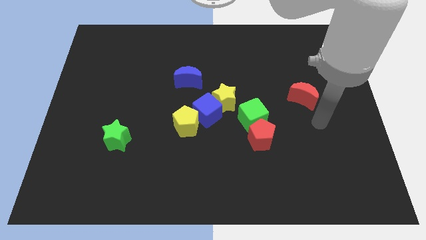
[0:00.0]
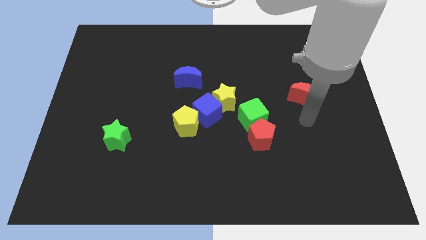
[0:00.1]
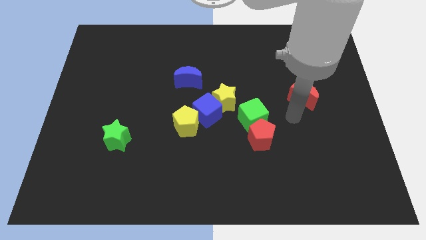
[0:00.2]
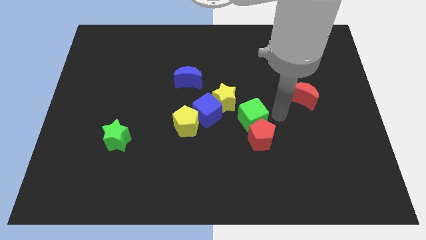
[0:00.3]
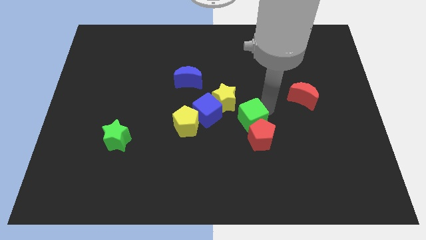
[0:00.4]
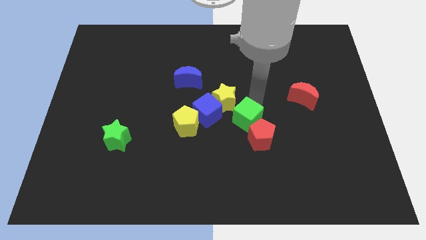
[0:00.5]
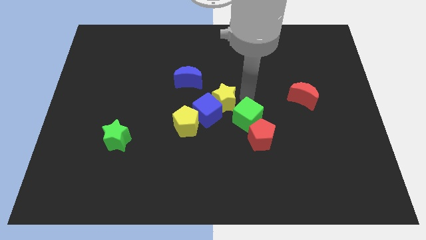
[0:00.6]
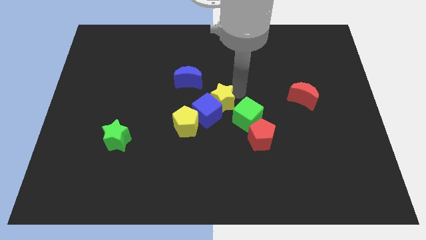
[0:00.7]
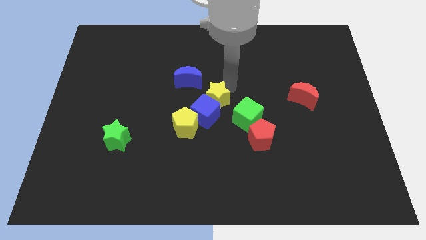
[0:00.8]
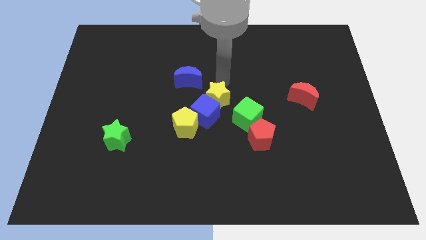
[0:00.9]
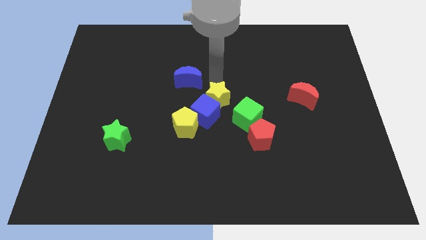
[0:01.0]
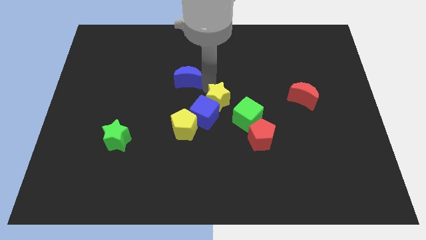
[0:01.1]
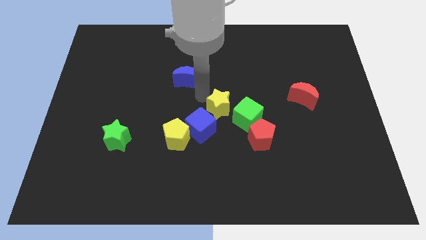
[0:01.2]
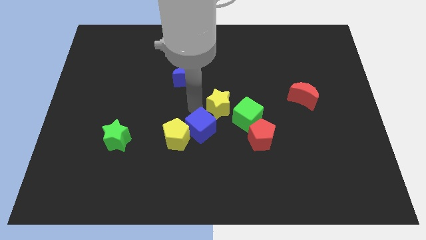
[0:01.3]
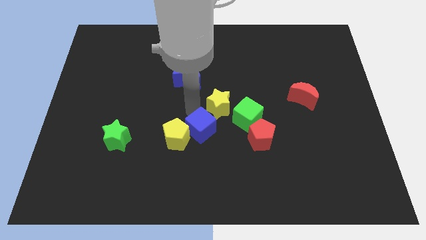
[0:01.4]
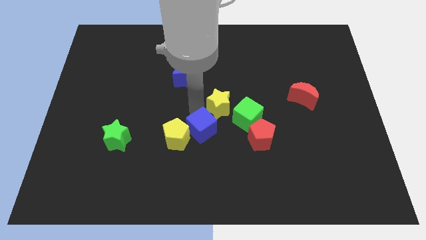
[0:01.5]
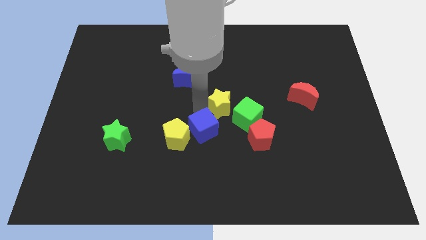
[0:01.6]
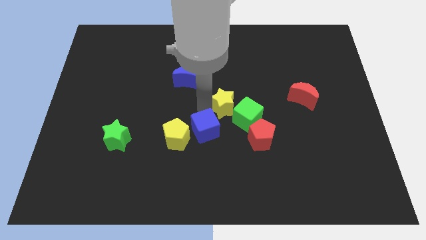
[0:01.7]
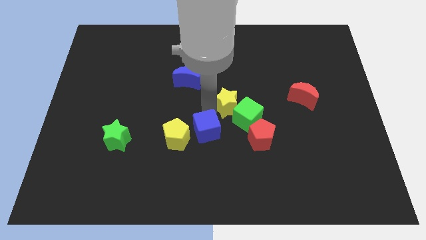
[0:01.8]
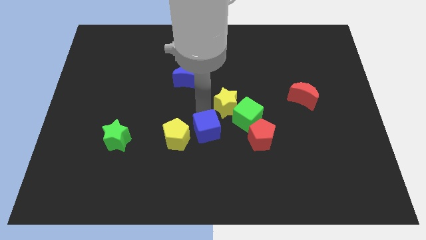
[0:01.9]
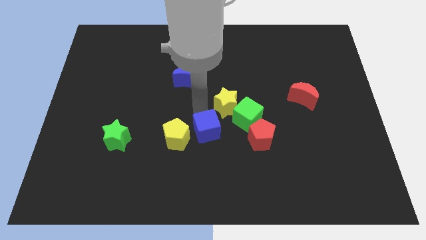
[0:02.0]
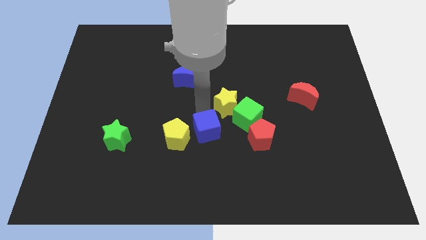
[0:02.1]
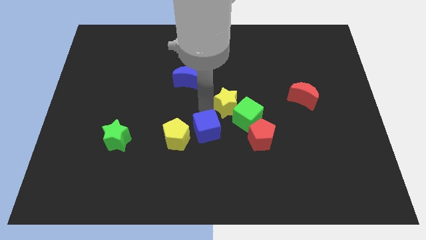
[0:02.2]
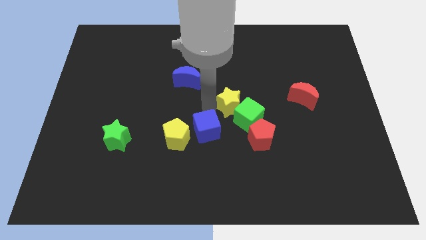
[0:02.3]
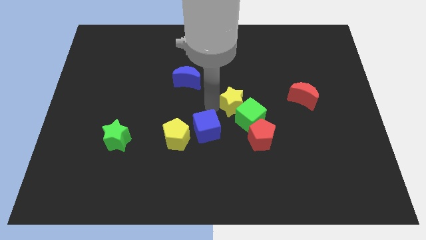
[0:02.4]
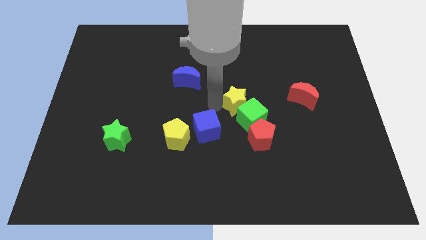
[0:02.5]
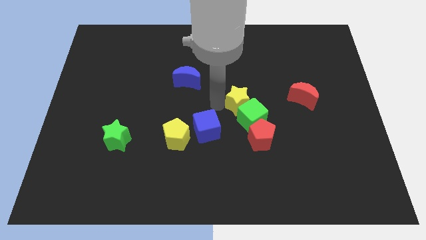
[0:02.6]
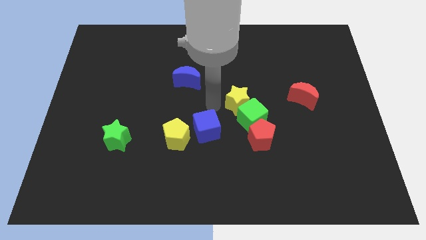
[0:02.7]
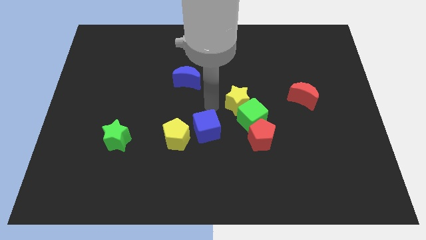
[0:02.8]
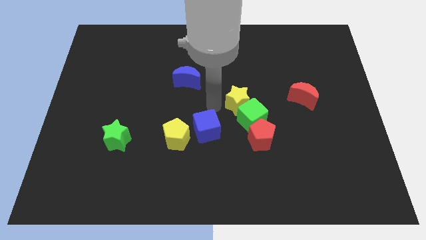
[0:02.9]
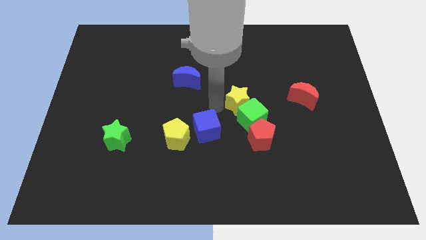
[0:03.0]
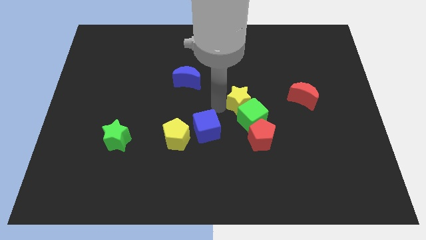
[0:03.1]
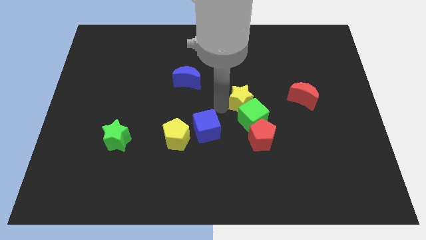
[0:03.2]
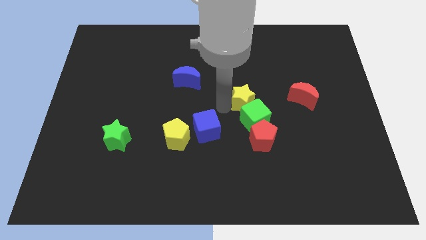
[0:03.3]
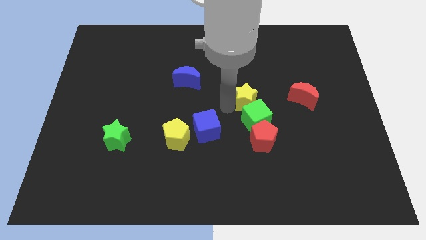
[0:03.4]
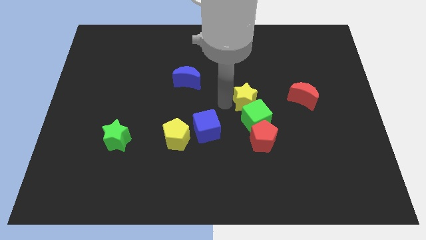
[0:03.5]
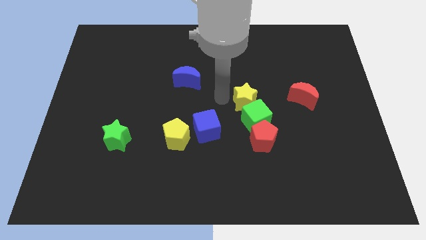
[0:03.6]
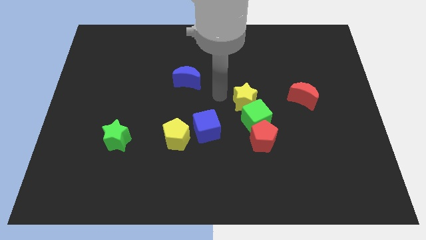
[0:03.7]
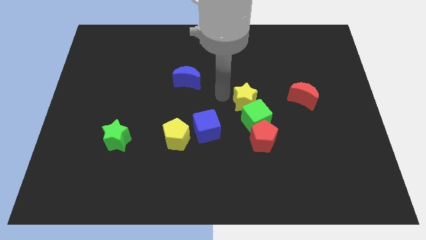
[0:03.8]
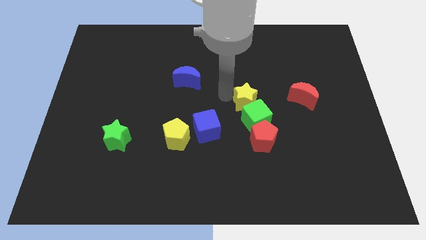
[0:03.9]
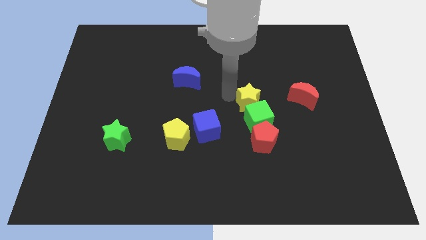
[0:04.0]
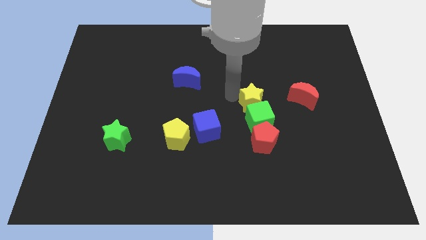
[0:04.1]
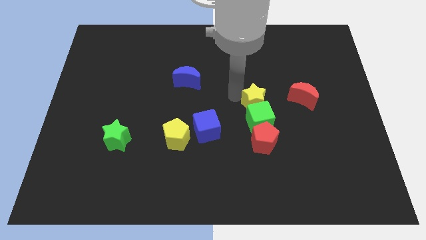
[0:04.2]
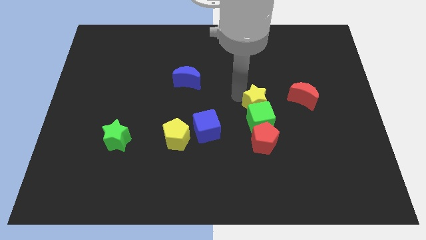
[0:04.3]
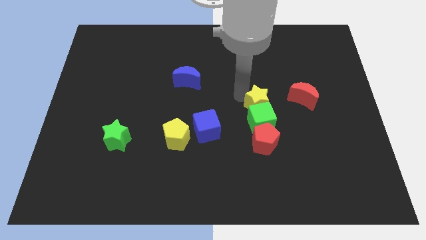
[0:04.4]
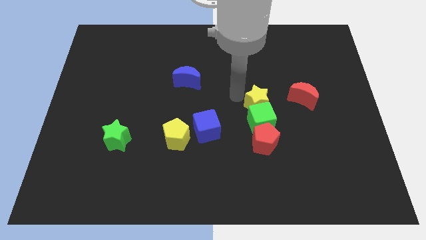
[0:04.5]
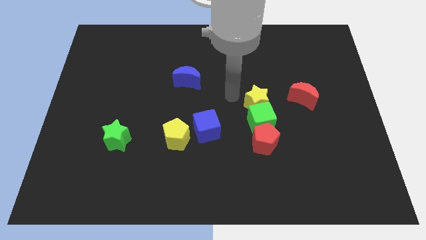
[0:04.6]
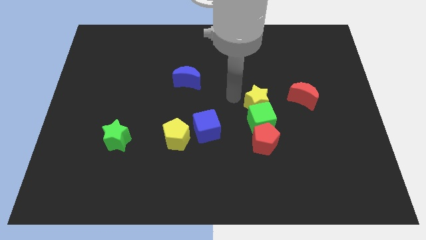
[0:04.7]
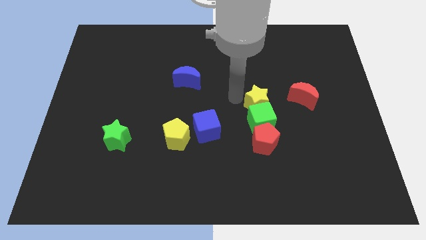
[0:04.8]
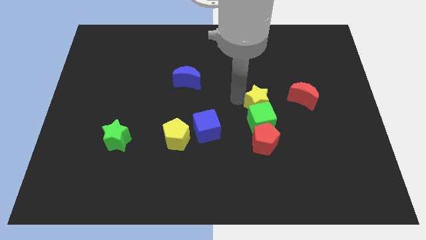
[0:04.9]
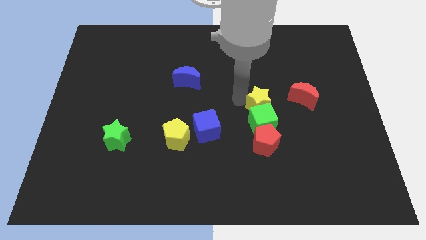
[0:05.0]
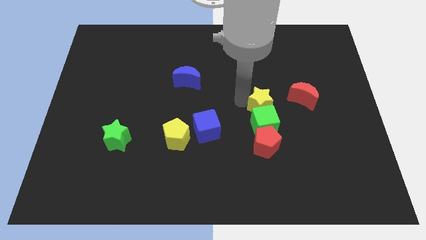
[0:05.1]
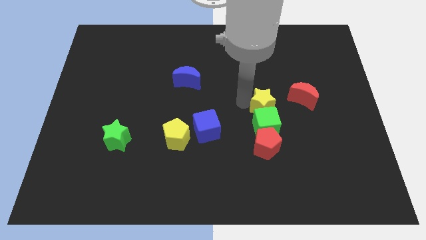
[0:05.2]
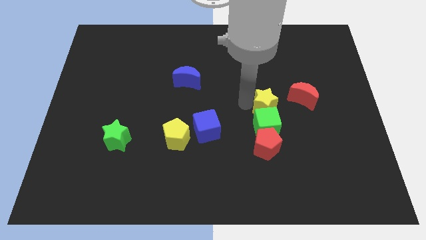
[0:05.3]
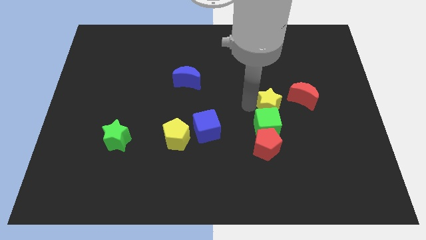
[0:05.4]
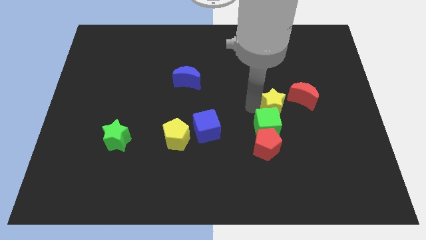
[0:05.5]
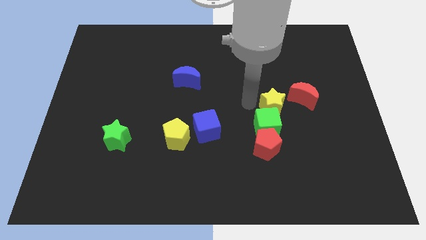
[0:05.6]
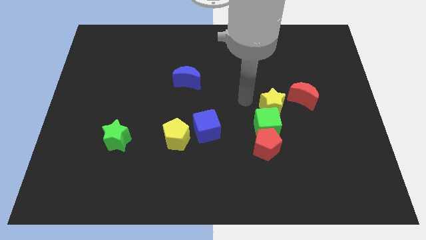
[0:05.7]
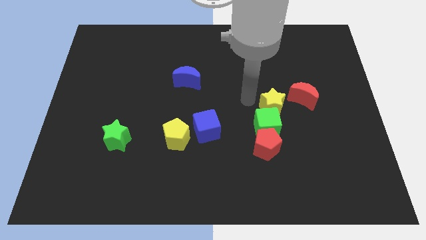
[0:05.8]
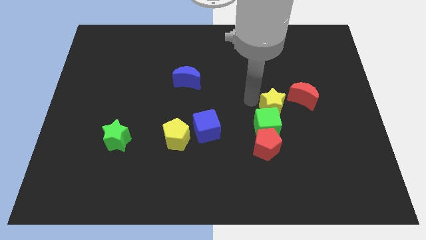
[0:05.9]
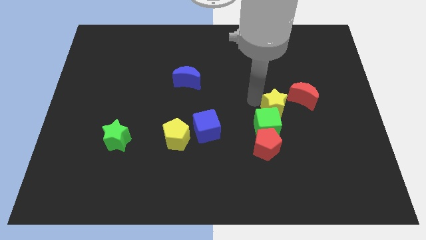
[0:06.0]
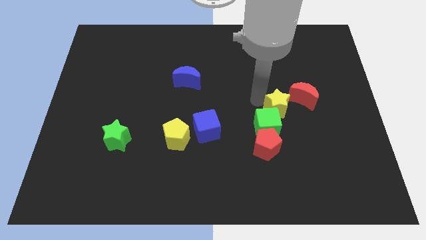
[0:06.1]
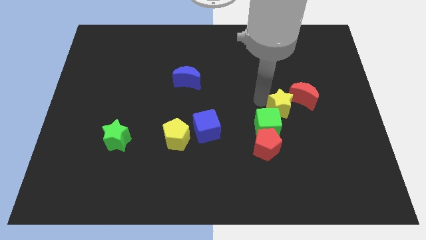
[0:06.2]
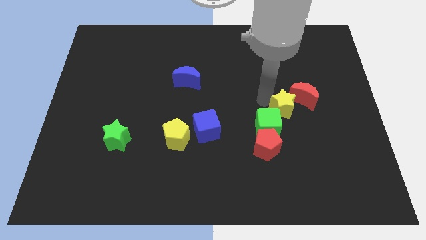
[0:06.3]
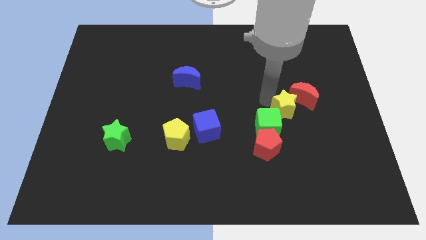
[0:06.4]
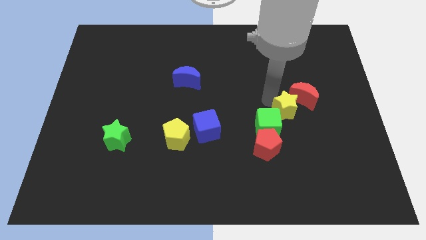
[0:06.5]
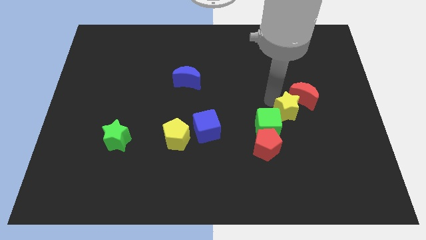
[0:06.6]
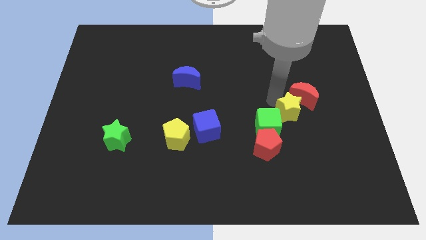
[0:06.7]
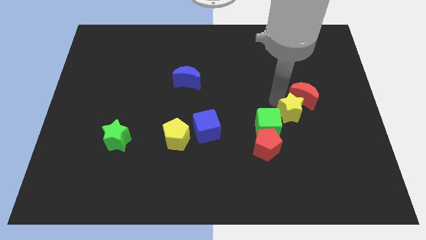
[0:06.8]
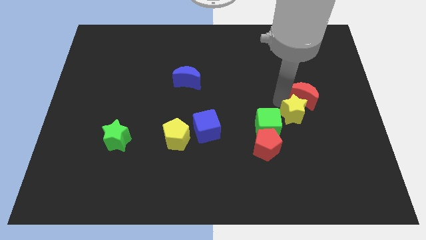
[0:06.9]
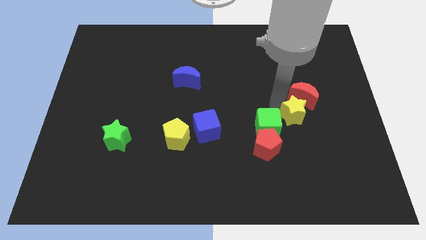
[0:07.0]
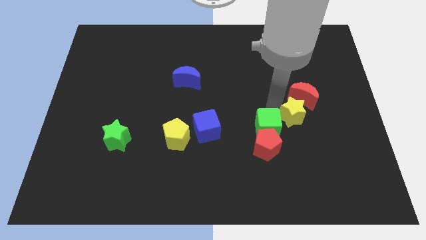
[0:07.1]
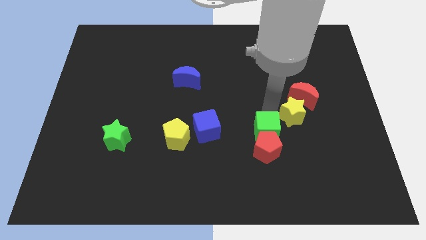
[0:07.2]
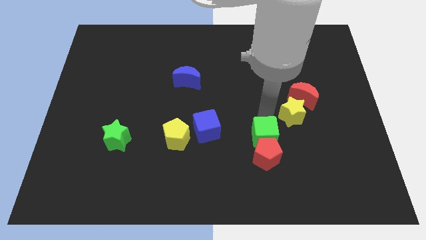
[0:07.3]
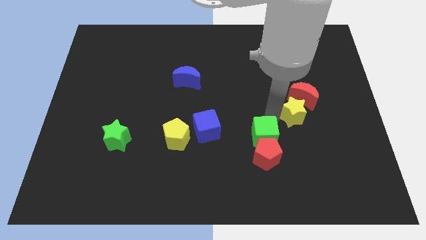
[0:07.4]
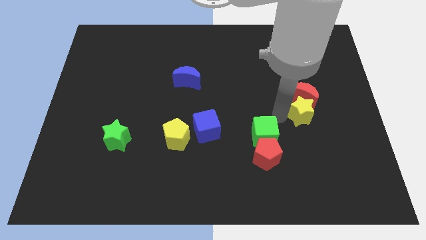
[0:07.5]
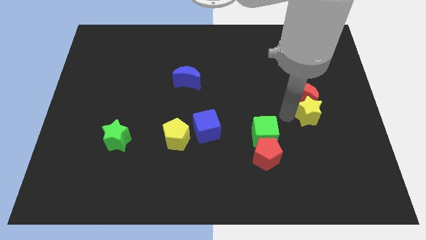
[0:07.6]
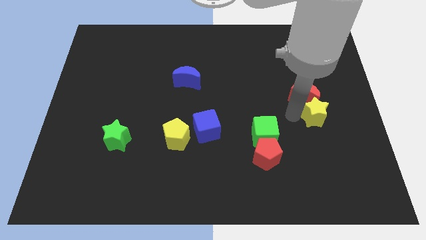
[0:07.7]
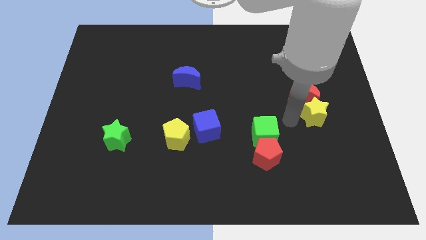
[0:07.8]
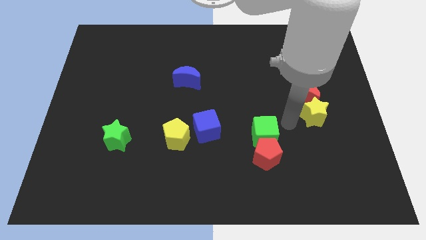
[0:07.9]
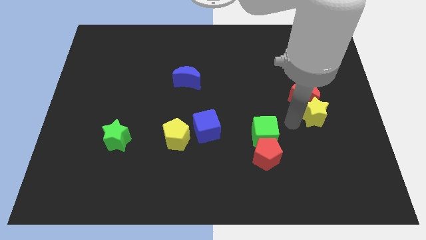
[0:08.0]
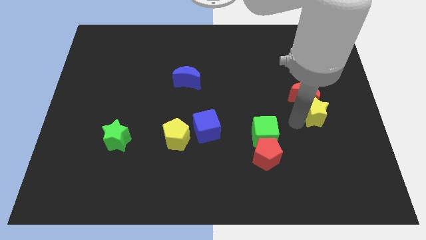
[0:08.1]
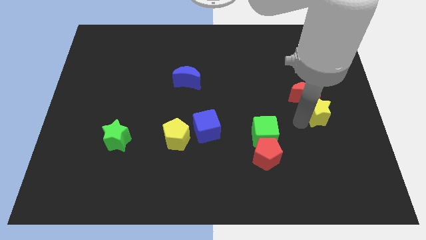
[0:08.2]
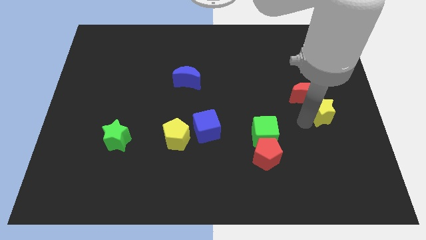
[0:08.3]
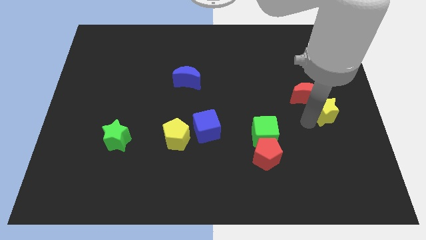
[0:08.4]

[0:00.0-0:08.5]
push the yellow star to the right side
